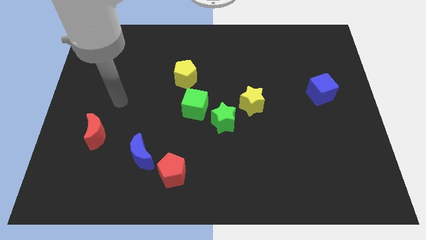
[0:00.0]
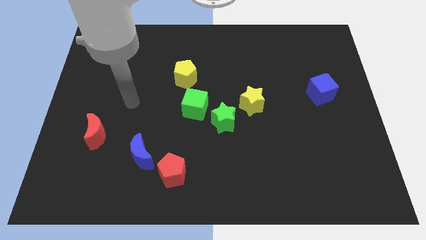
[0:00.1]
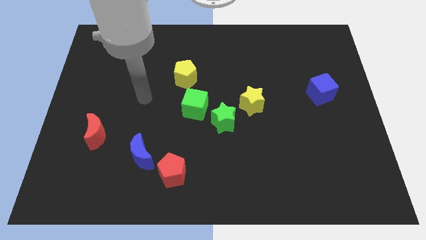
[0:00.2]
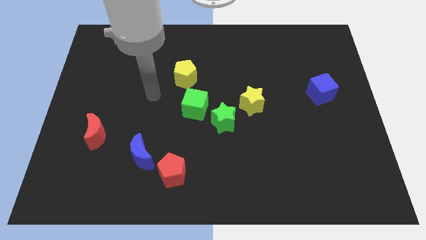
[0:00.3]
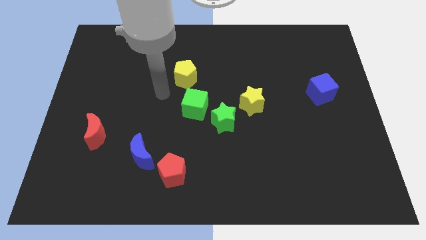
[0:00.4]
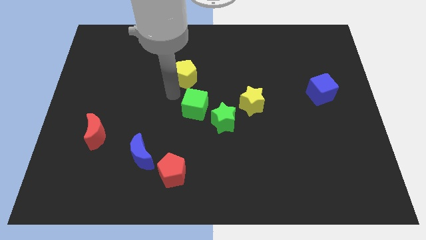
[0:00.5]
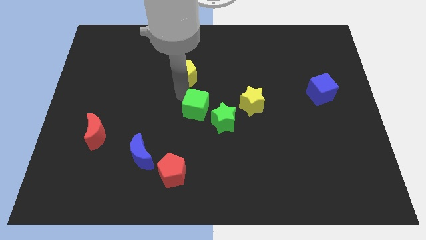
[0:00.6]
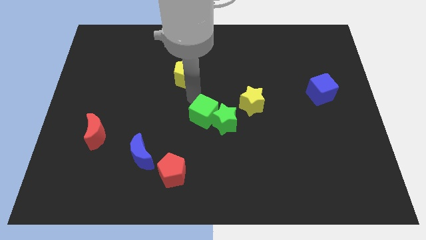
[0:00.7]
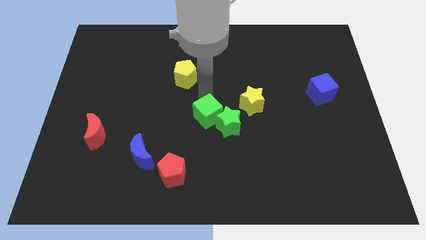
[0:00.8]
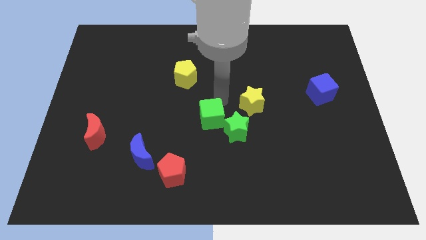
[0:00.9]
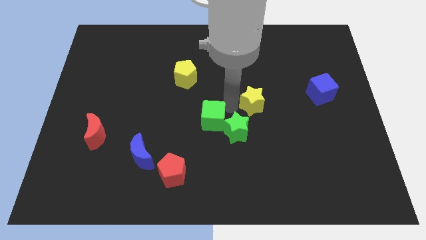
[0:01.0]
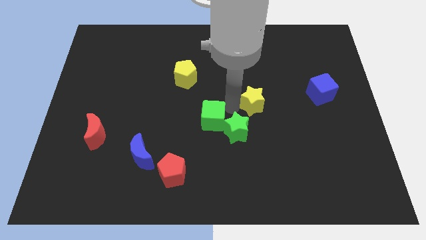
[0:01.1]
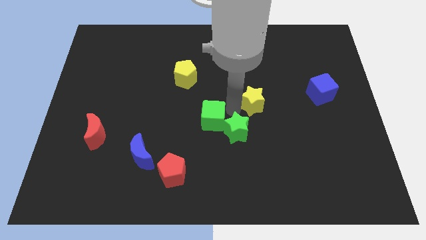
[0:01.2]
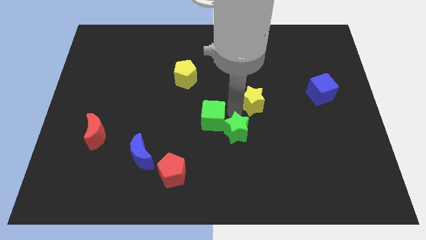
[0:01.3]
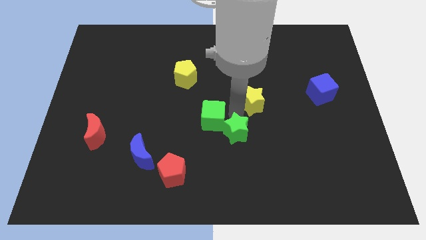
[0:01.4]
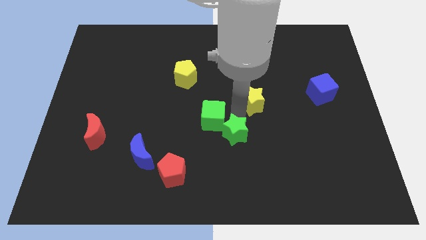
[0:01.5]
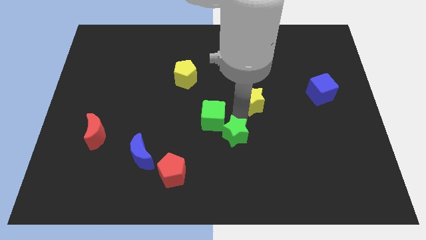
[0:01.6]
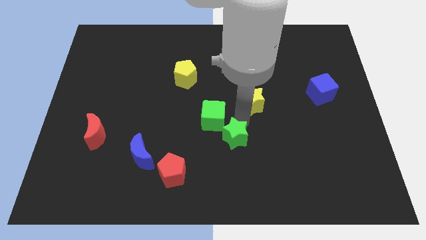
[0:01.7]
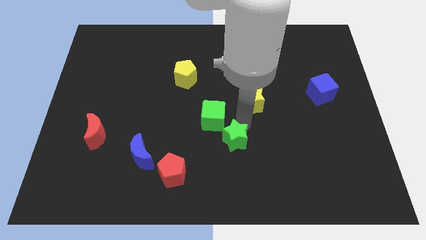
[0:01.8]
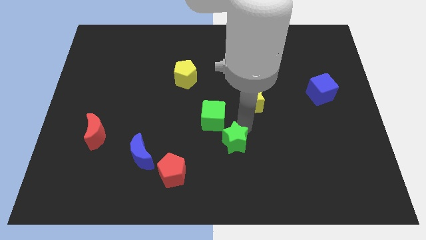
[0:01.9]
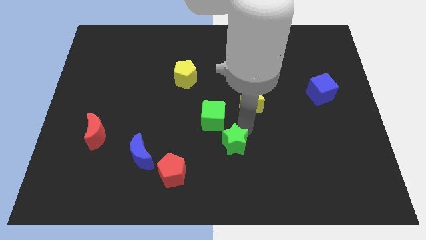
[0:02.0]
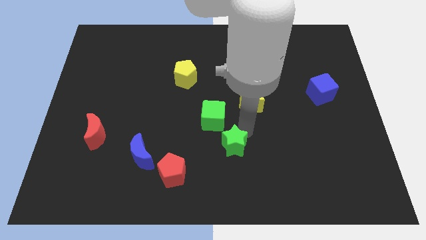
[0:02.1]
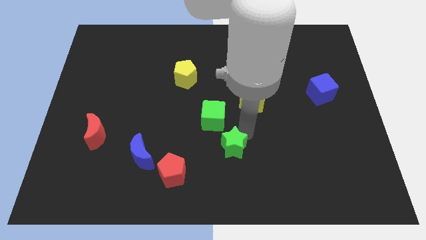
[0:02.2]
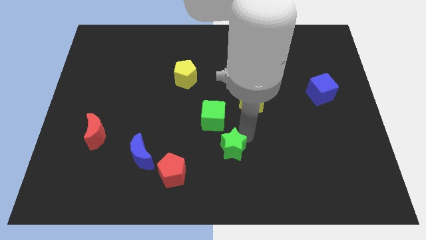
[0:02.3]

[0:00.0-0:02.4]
separate the green star from the green cube and yellow star

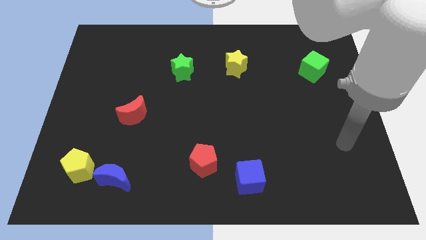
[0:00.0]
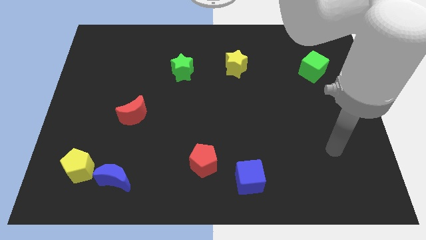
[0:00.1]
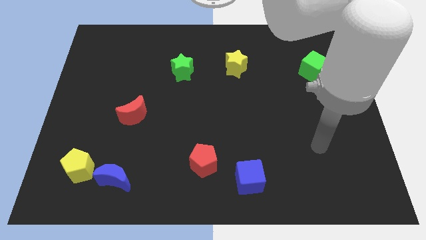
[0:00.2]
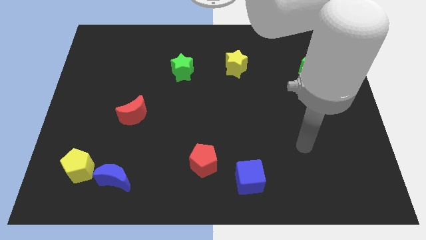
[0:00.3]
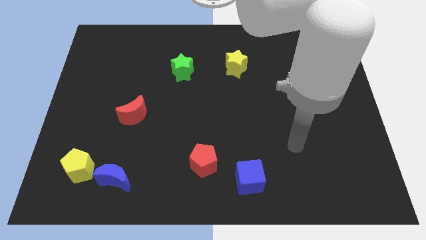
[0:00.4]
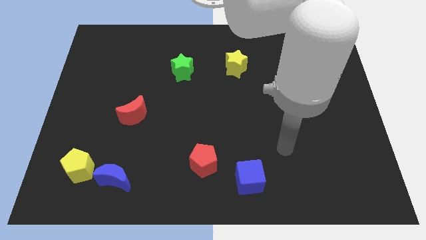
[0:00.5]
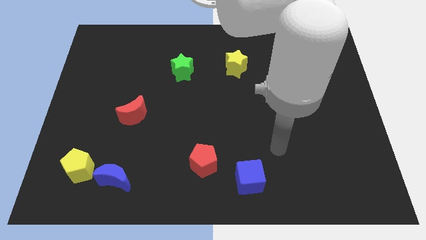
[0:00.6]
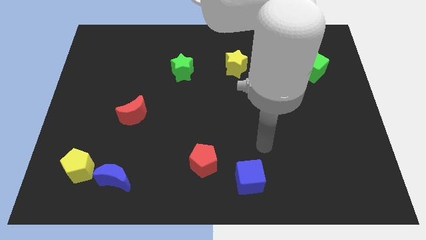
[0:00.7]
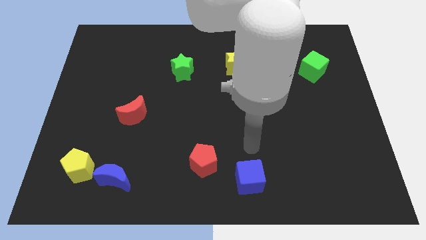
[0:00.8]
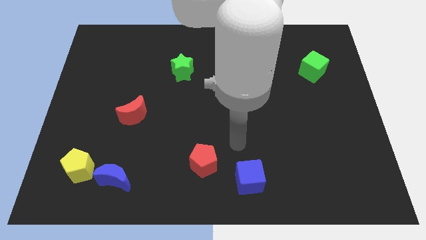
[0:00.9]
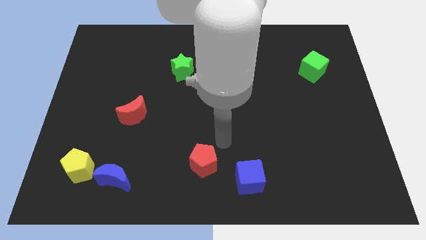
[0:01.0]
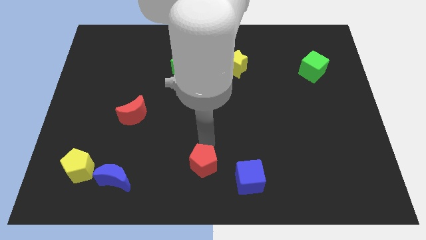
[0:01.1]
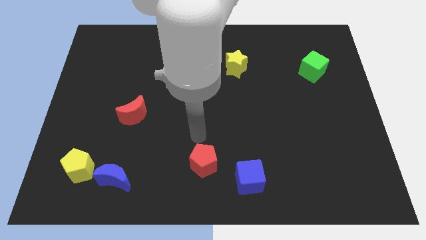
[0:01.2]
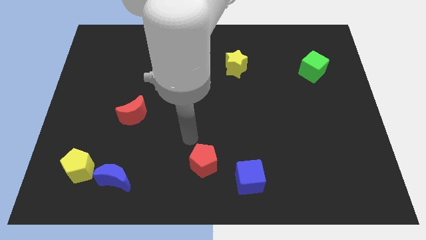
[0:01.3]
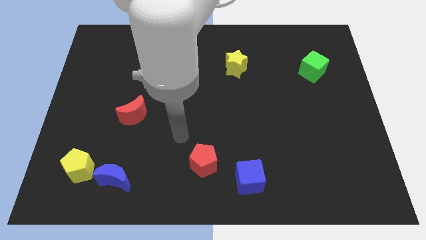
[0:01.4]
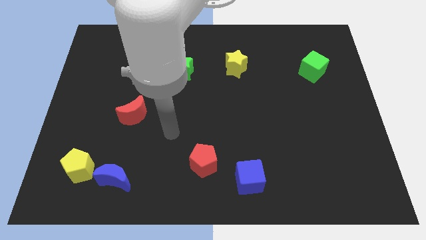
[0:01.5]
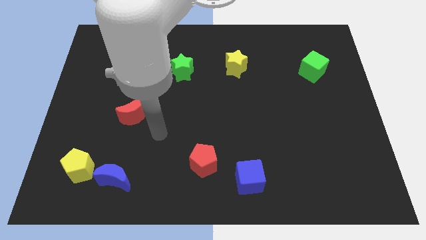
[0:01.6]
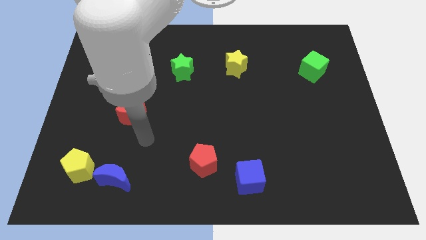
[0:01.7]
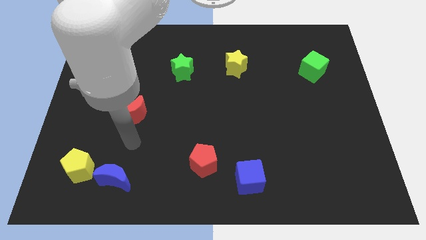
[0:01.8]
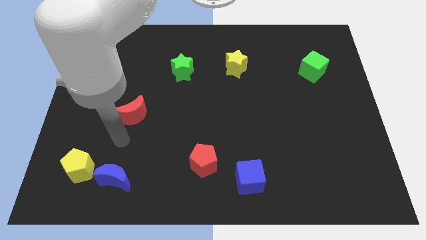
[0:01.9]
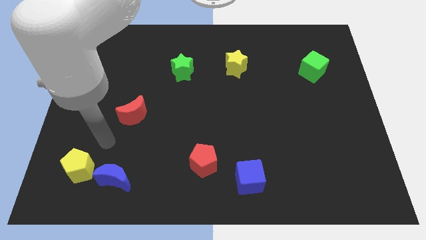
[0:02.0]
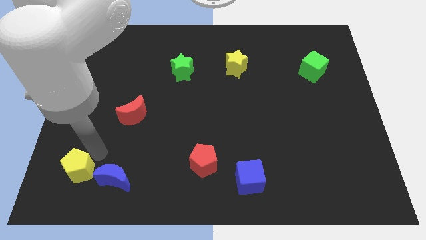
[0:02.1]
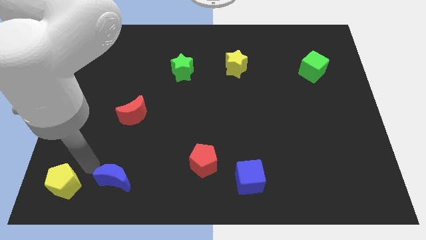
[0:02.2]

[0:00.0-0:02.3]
pull the blue moon apart from the yellow pentagon

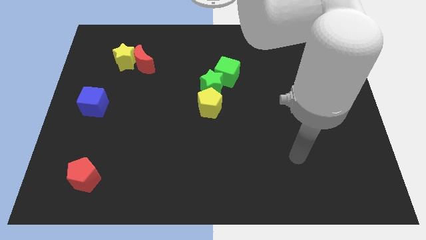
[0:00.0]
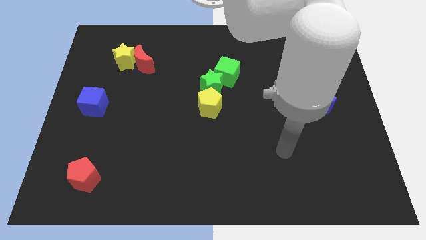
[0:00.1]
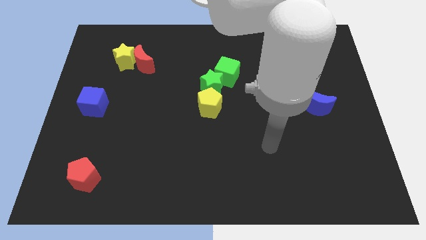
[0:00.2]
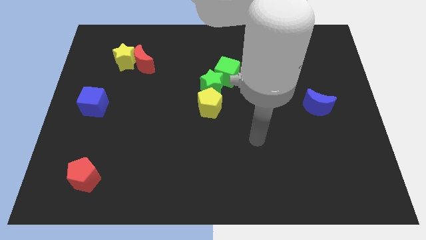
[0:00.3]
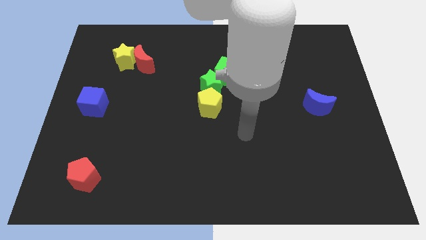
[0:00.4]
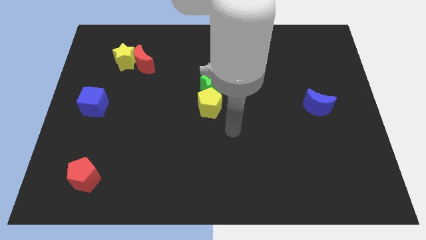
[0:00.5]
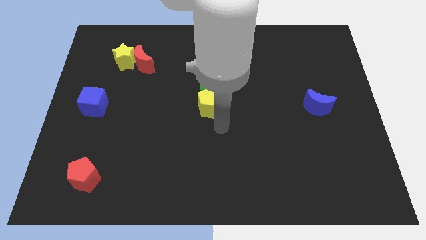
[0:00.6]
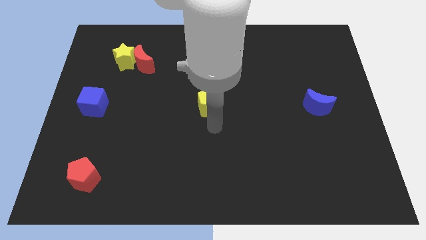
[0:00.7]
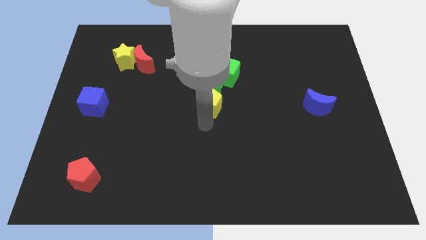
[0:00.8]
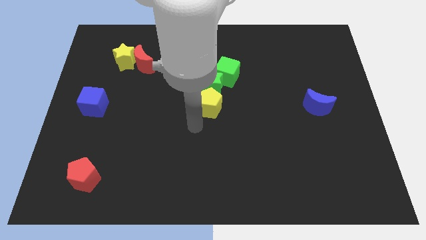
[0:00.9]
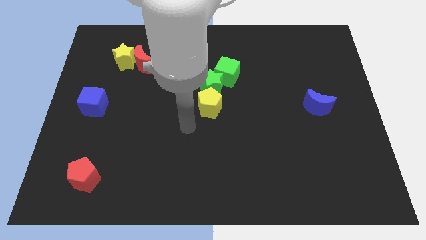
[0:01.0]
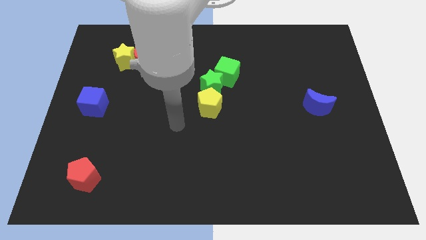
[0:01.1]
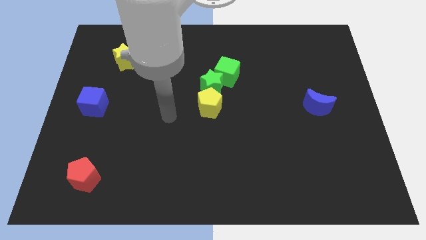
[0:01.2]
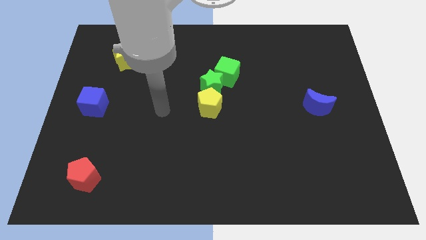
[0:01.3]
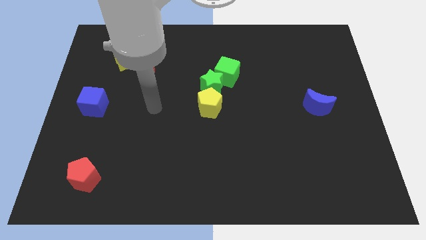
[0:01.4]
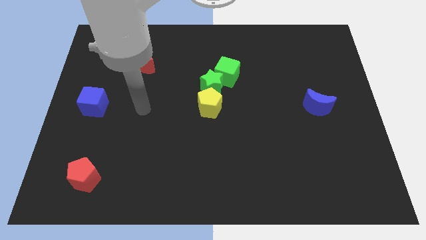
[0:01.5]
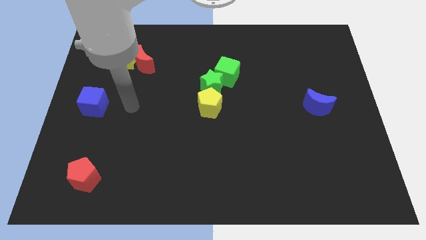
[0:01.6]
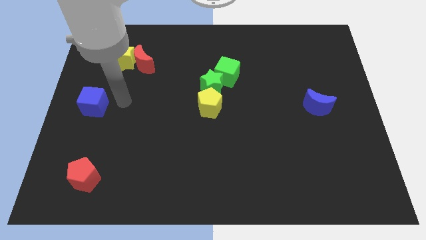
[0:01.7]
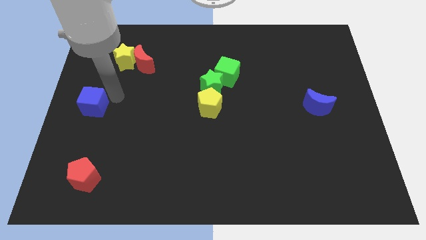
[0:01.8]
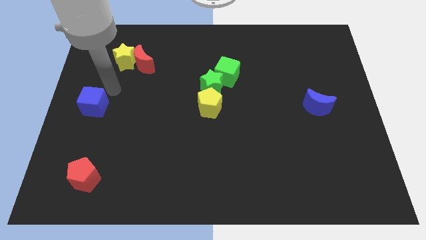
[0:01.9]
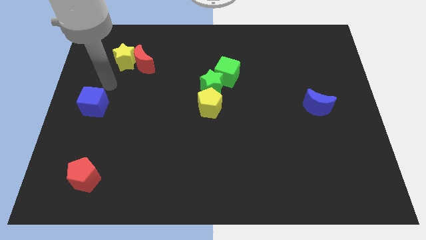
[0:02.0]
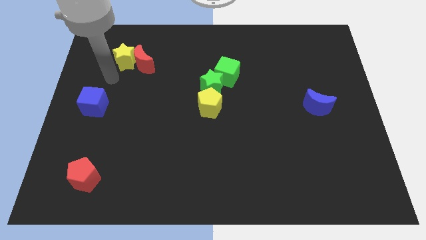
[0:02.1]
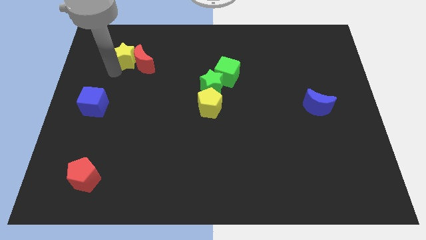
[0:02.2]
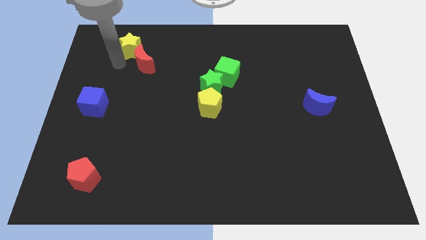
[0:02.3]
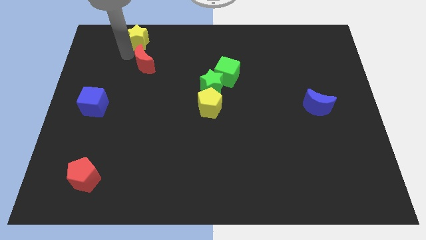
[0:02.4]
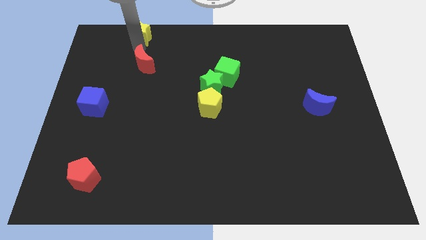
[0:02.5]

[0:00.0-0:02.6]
separate the red moon from the yellow star

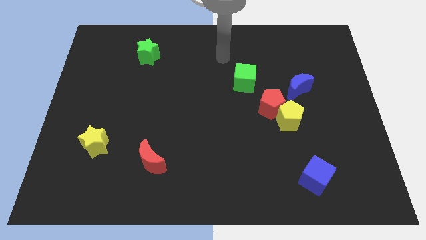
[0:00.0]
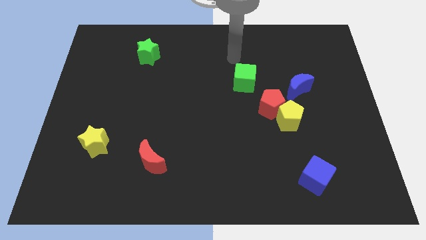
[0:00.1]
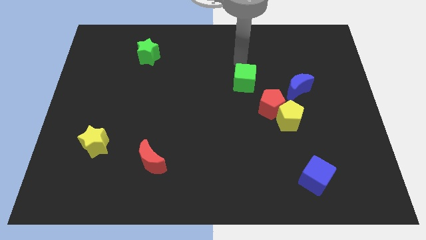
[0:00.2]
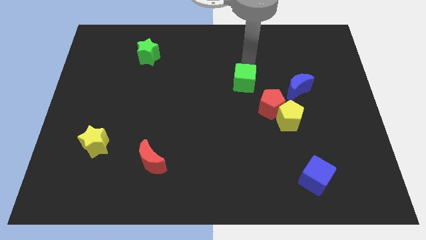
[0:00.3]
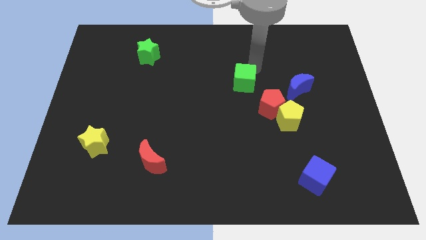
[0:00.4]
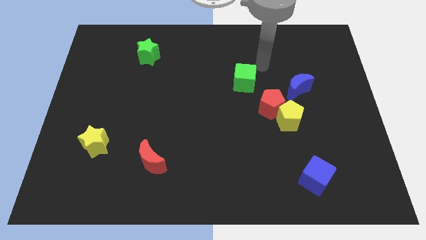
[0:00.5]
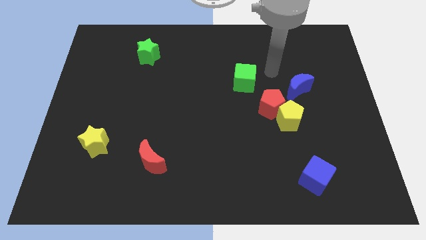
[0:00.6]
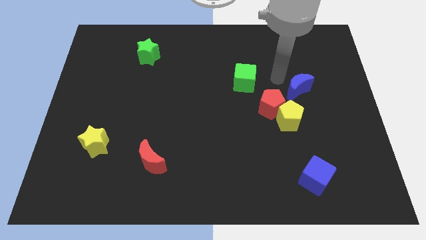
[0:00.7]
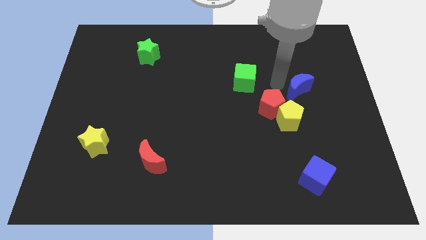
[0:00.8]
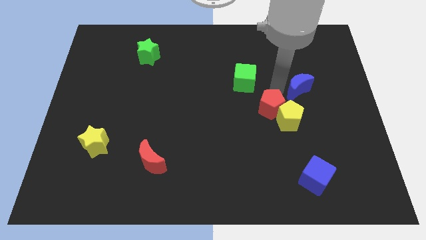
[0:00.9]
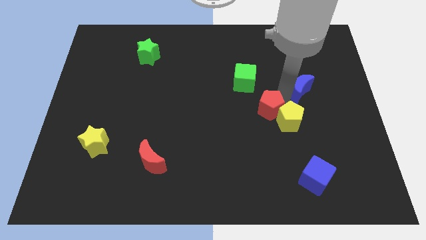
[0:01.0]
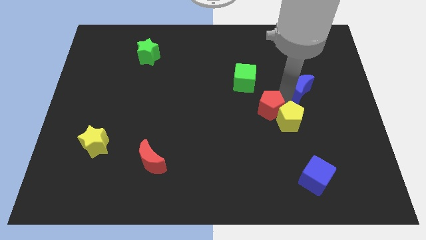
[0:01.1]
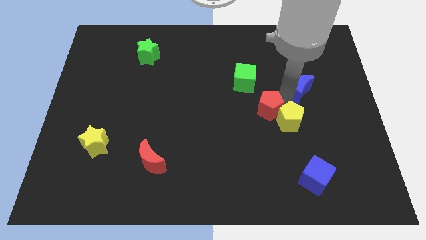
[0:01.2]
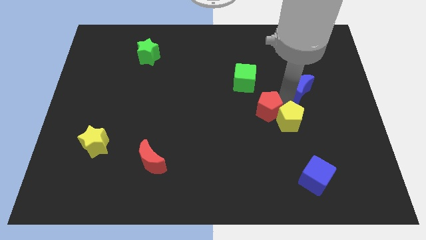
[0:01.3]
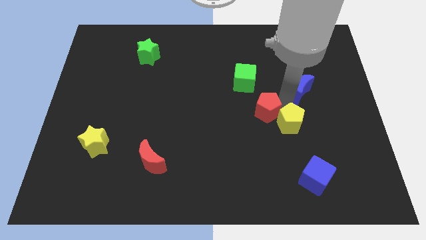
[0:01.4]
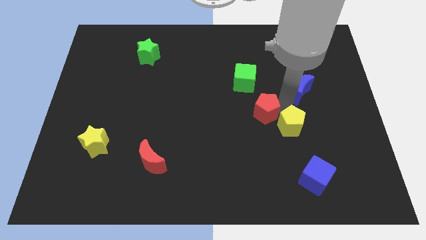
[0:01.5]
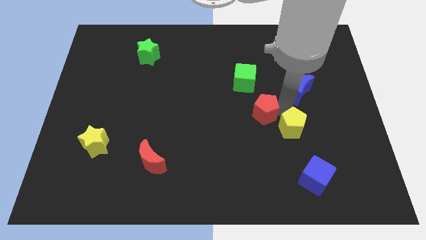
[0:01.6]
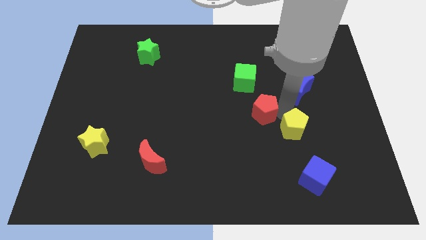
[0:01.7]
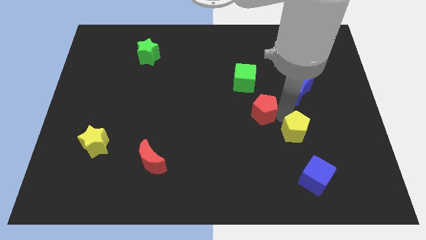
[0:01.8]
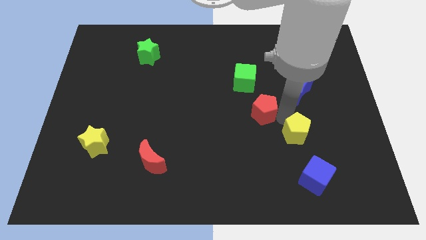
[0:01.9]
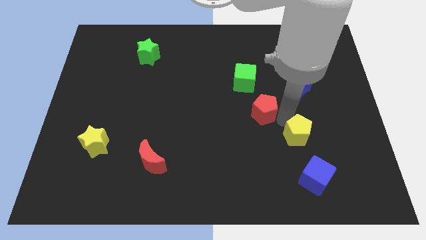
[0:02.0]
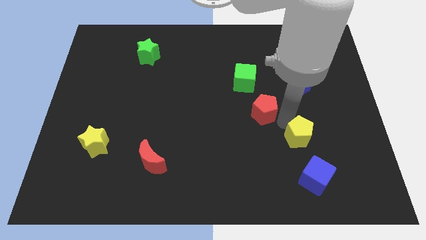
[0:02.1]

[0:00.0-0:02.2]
pull the yellow pentagon apart from the red pentagon and blue moon
